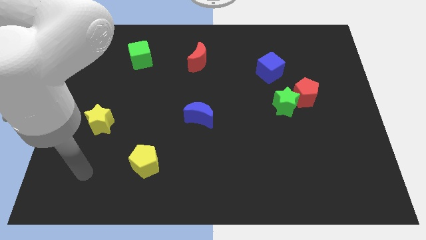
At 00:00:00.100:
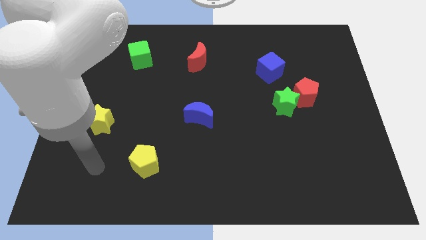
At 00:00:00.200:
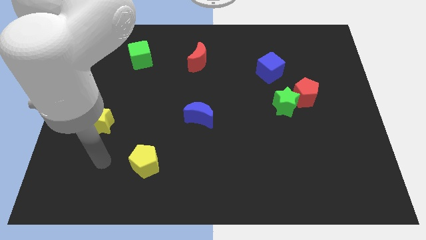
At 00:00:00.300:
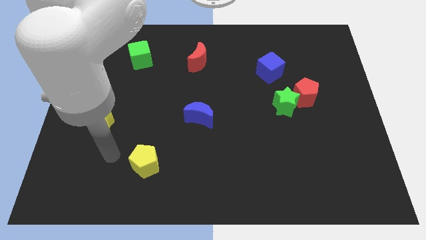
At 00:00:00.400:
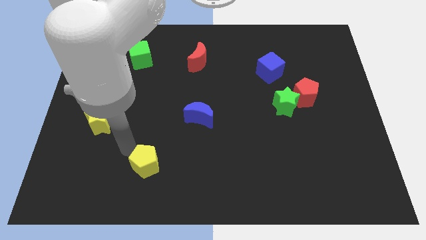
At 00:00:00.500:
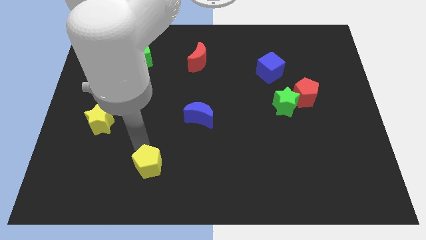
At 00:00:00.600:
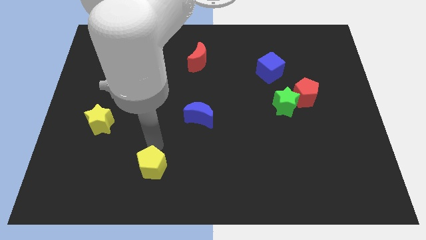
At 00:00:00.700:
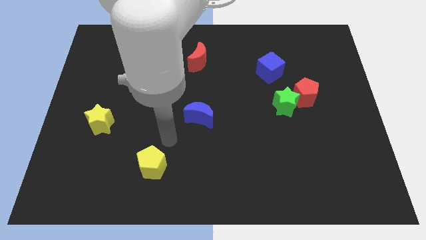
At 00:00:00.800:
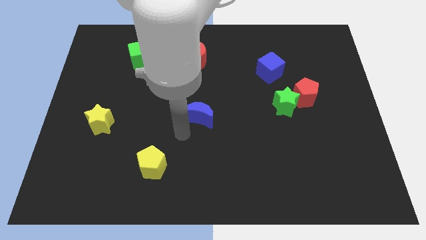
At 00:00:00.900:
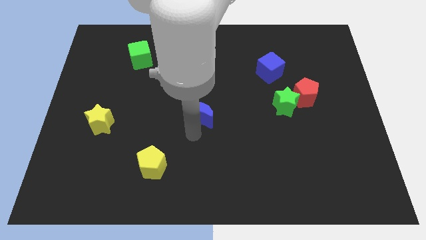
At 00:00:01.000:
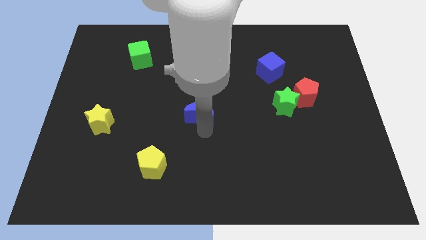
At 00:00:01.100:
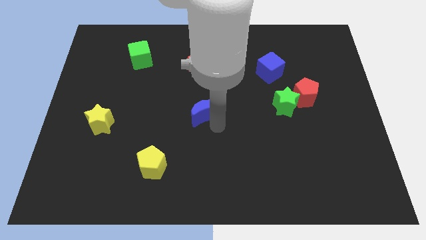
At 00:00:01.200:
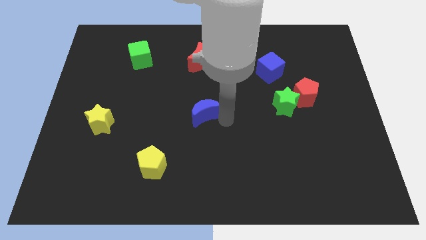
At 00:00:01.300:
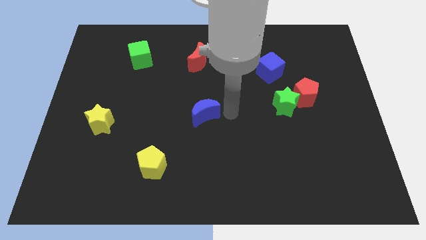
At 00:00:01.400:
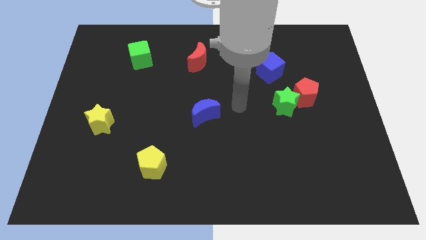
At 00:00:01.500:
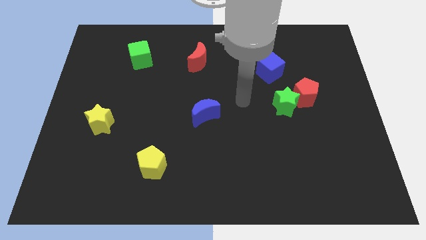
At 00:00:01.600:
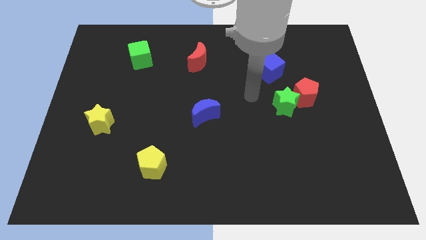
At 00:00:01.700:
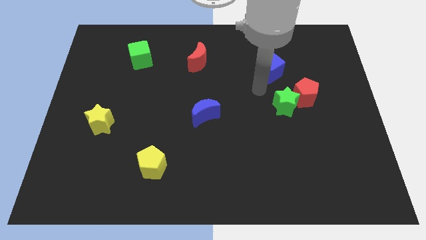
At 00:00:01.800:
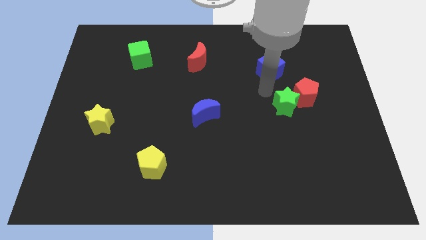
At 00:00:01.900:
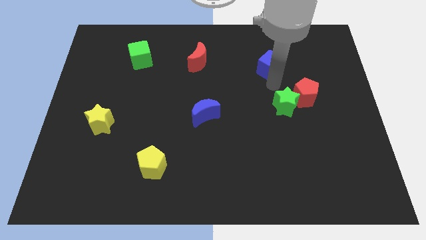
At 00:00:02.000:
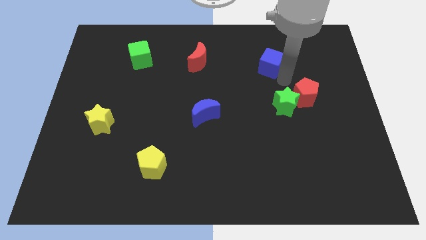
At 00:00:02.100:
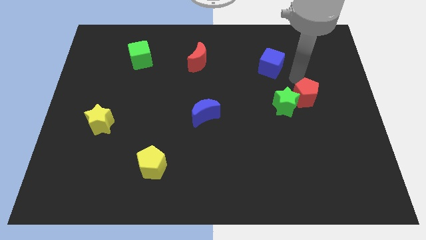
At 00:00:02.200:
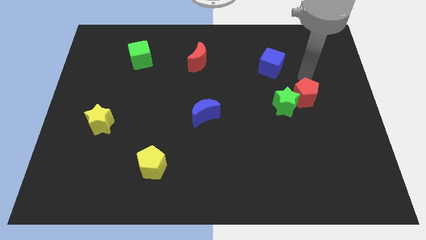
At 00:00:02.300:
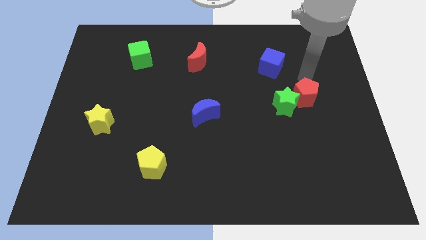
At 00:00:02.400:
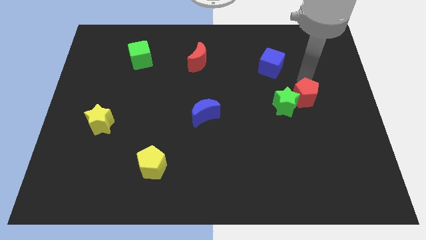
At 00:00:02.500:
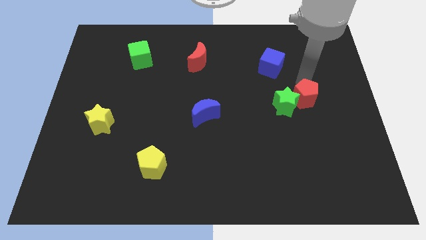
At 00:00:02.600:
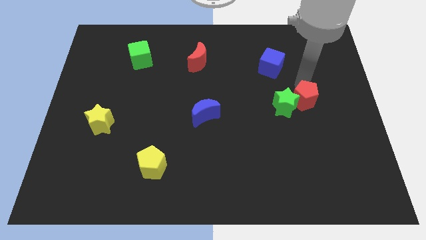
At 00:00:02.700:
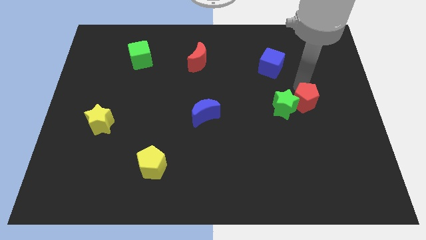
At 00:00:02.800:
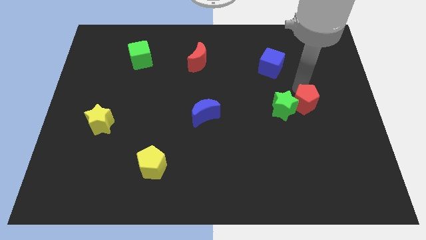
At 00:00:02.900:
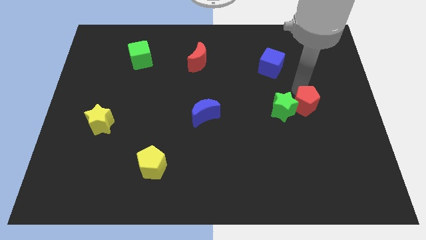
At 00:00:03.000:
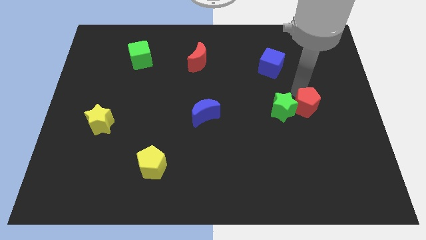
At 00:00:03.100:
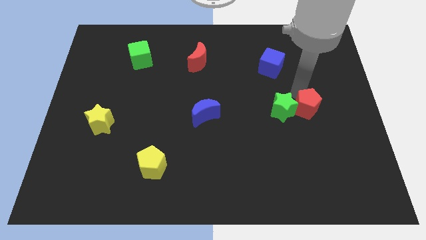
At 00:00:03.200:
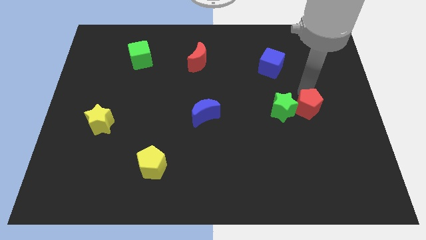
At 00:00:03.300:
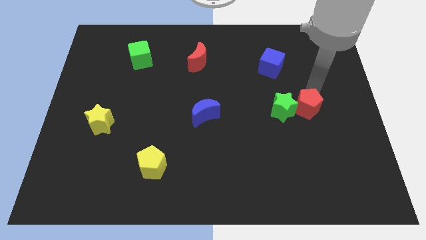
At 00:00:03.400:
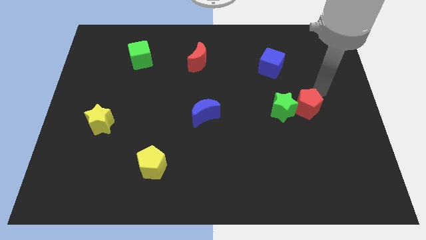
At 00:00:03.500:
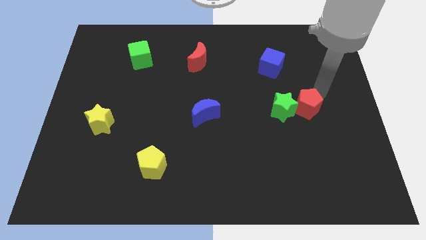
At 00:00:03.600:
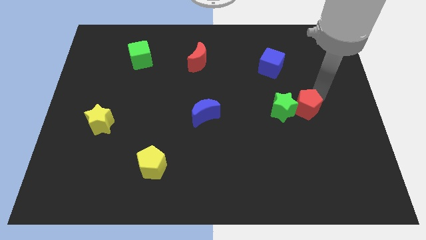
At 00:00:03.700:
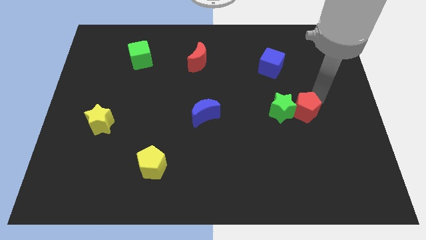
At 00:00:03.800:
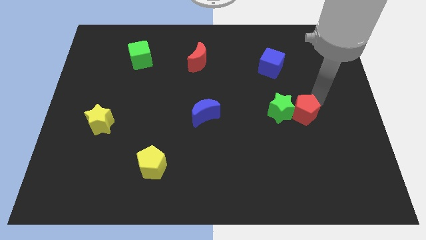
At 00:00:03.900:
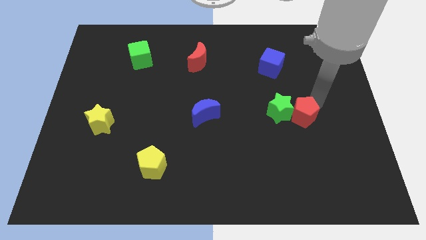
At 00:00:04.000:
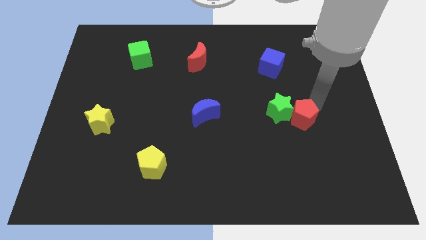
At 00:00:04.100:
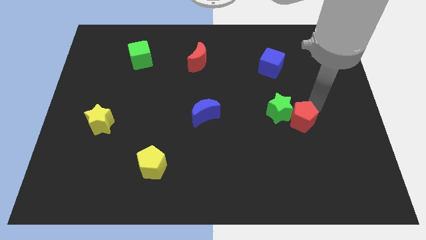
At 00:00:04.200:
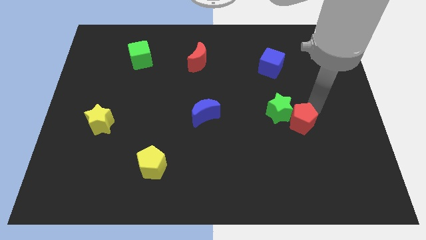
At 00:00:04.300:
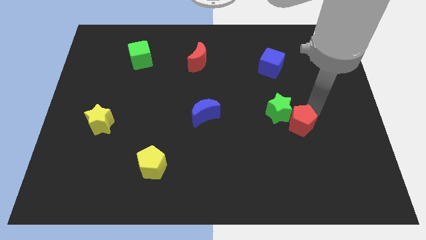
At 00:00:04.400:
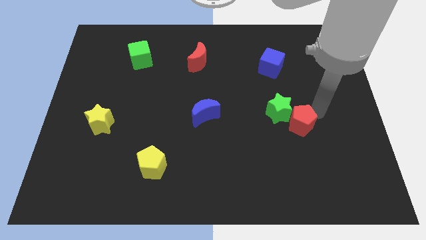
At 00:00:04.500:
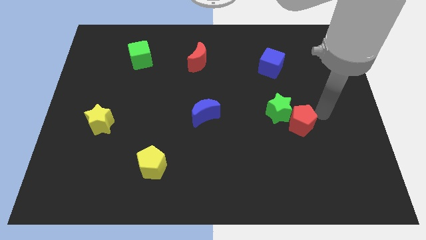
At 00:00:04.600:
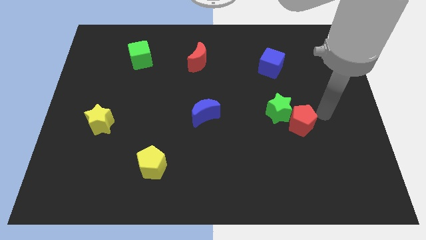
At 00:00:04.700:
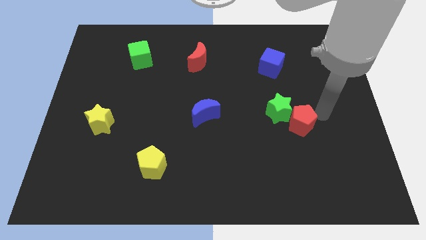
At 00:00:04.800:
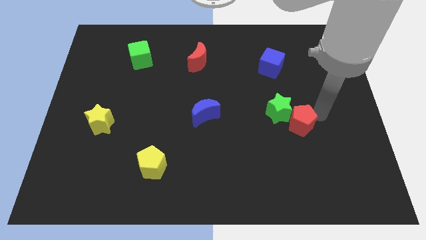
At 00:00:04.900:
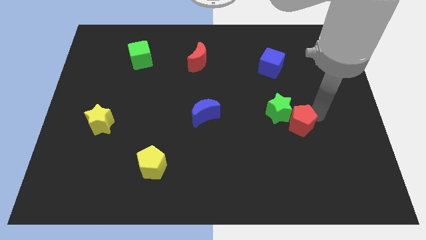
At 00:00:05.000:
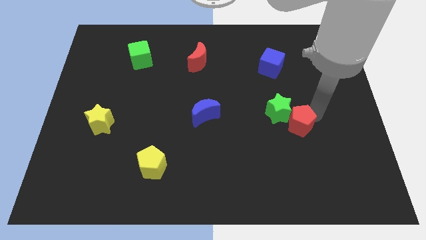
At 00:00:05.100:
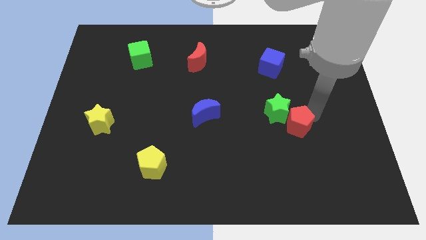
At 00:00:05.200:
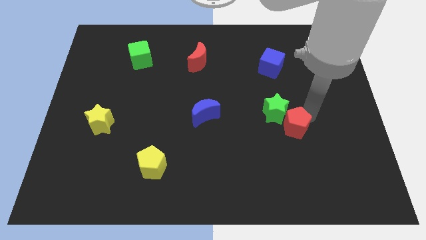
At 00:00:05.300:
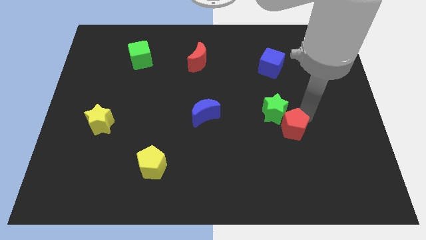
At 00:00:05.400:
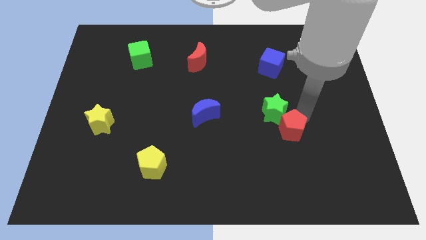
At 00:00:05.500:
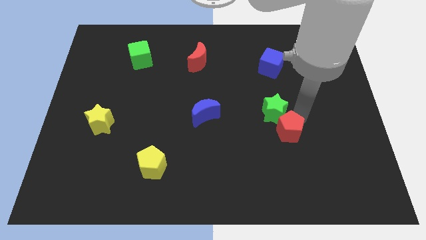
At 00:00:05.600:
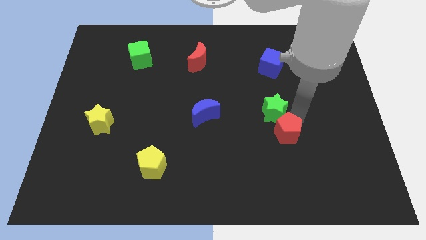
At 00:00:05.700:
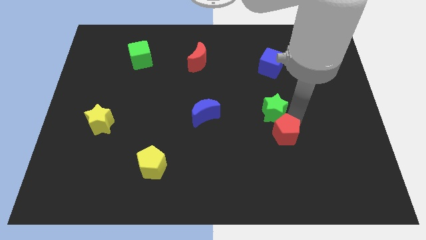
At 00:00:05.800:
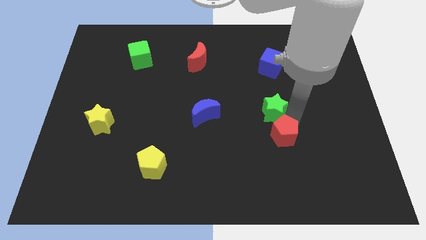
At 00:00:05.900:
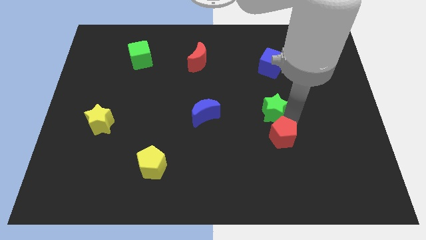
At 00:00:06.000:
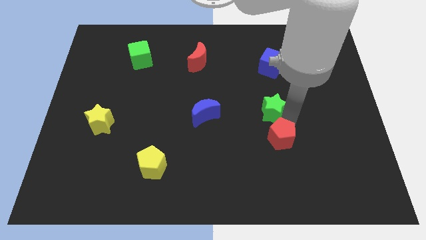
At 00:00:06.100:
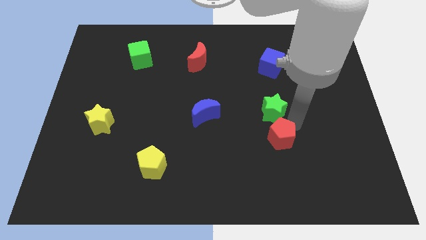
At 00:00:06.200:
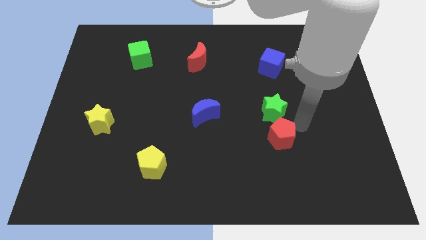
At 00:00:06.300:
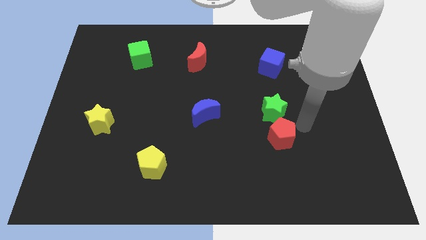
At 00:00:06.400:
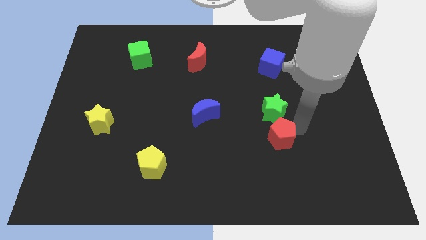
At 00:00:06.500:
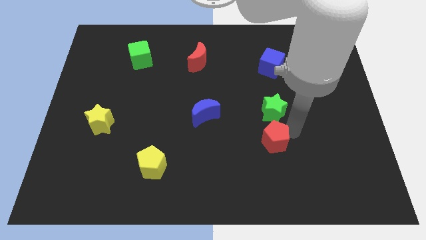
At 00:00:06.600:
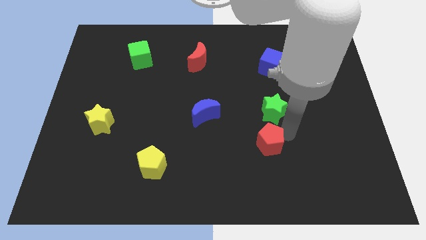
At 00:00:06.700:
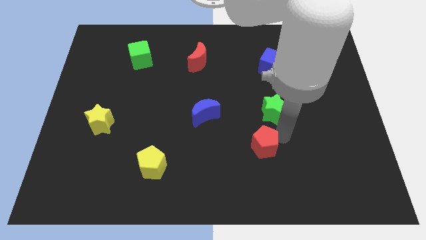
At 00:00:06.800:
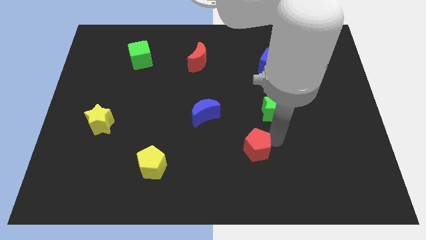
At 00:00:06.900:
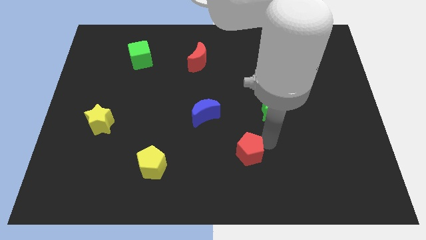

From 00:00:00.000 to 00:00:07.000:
slide the red pentagon downwards and left diagonally

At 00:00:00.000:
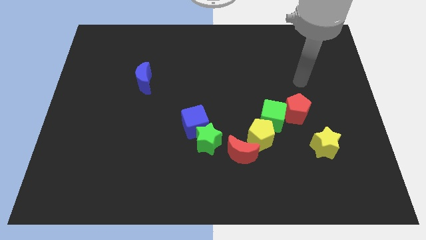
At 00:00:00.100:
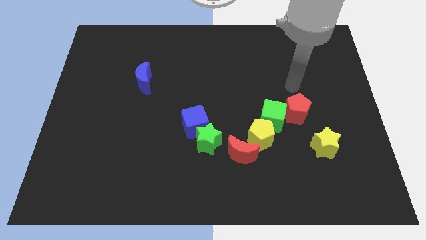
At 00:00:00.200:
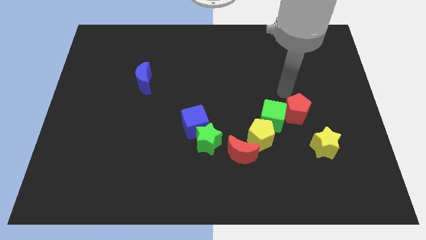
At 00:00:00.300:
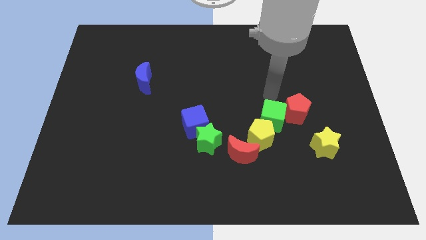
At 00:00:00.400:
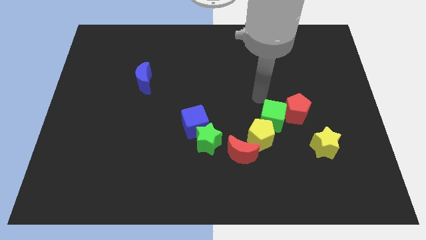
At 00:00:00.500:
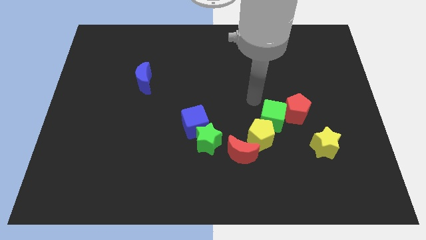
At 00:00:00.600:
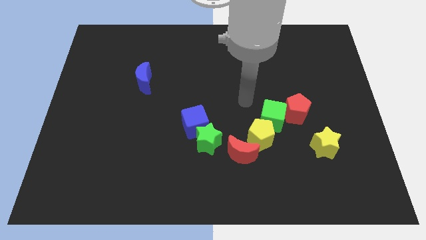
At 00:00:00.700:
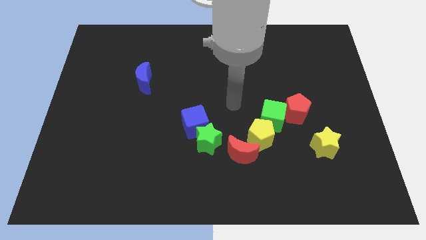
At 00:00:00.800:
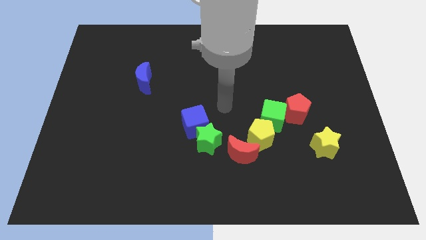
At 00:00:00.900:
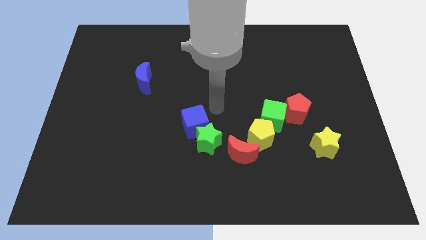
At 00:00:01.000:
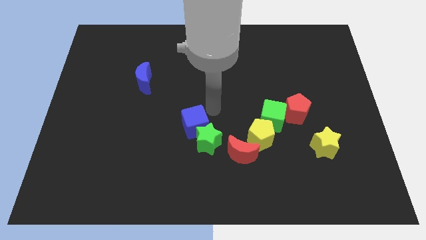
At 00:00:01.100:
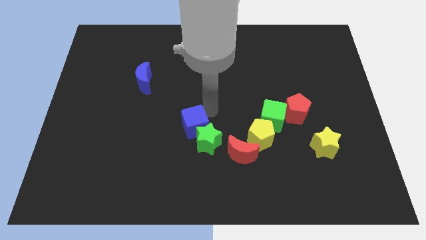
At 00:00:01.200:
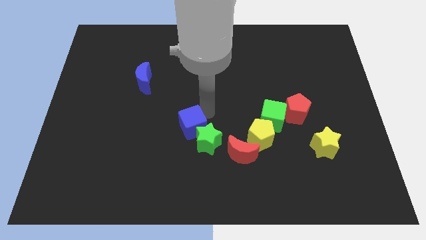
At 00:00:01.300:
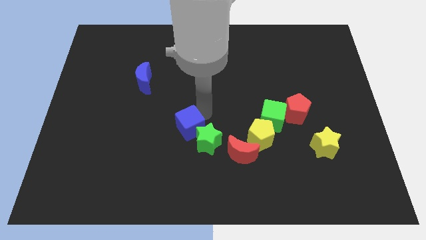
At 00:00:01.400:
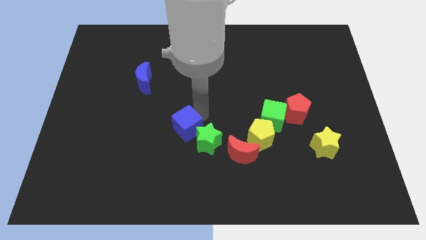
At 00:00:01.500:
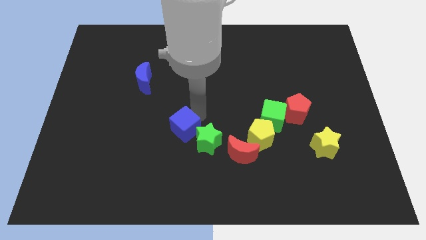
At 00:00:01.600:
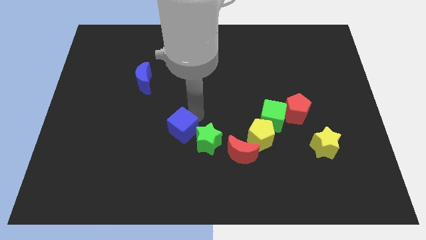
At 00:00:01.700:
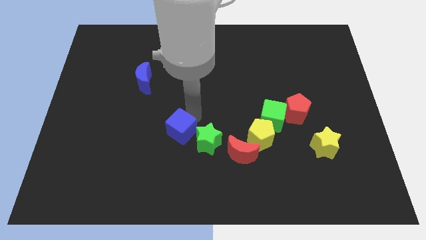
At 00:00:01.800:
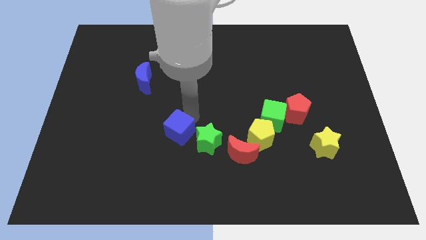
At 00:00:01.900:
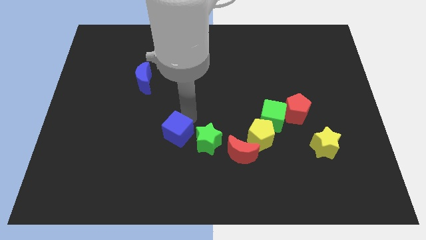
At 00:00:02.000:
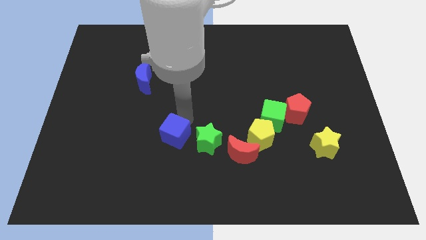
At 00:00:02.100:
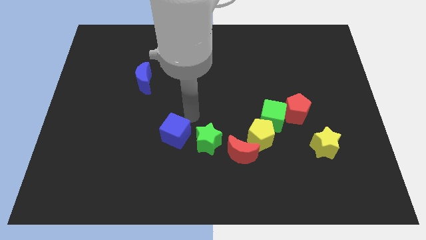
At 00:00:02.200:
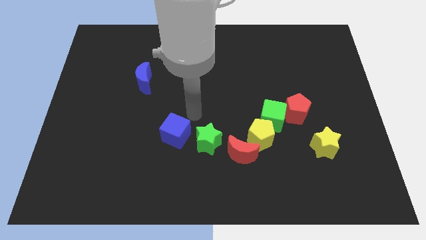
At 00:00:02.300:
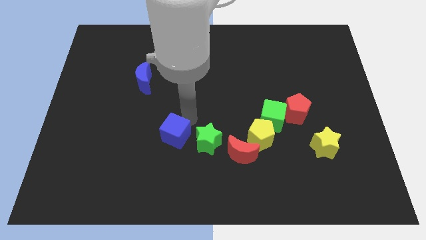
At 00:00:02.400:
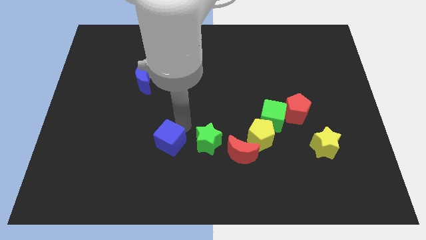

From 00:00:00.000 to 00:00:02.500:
move the blue cube a bit down and then to the left
